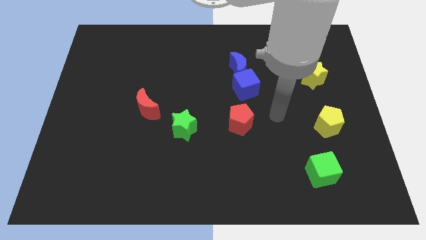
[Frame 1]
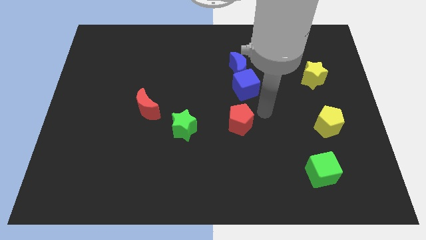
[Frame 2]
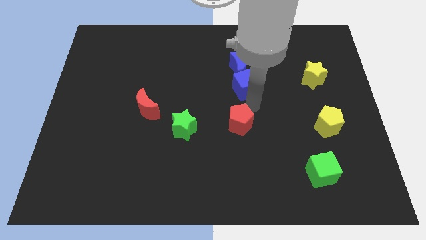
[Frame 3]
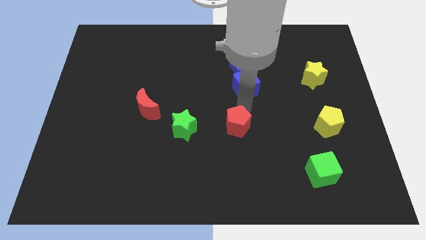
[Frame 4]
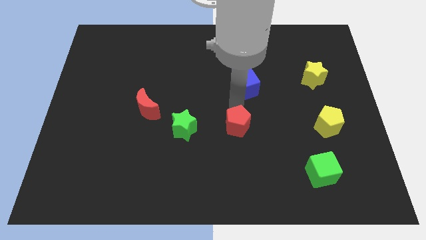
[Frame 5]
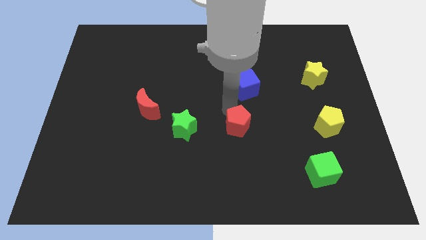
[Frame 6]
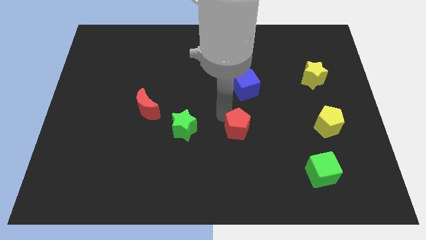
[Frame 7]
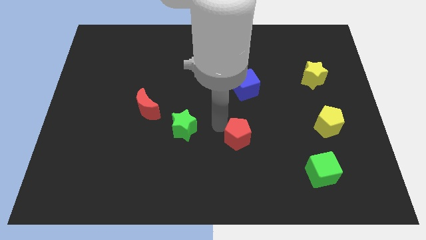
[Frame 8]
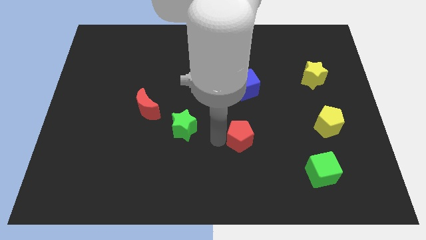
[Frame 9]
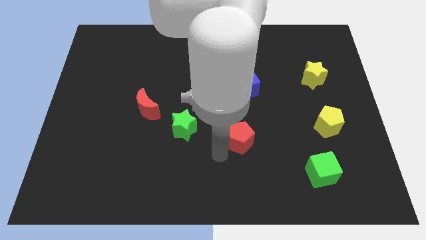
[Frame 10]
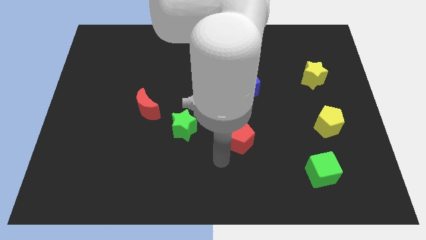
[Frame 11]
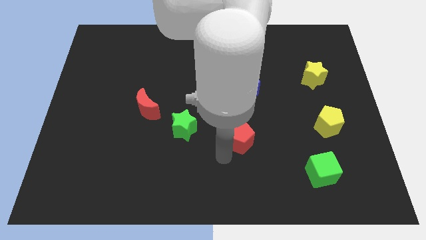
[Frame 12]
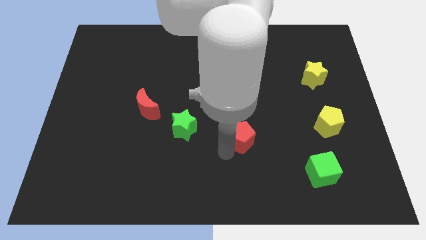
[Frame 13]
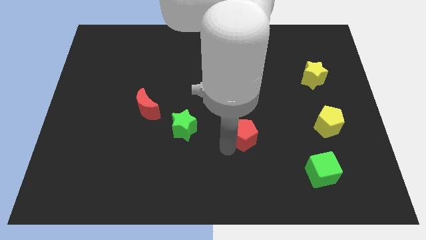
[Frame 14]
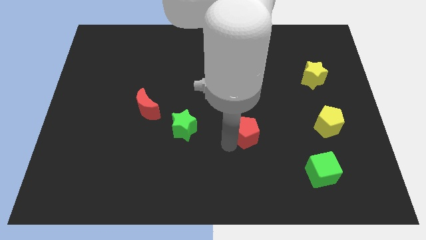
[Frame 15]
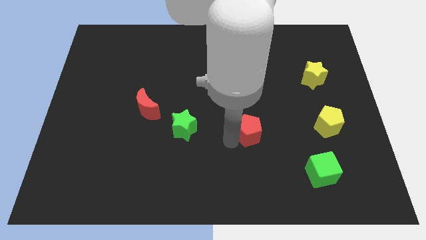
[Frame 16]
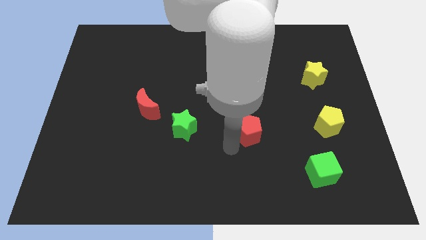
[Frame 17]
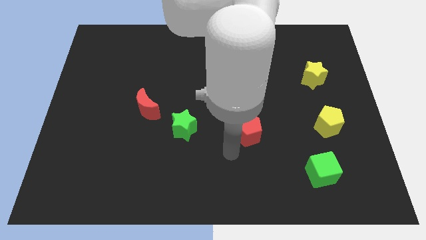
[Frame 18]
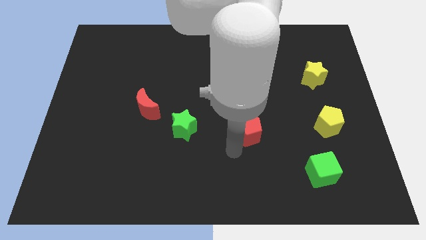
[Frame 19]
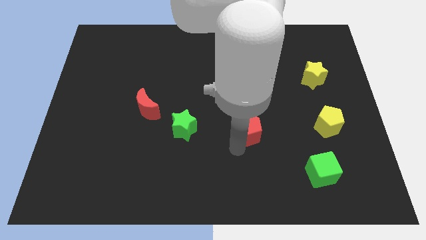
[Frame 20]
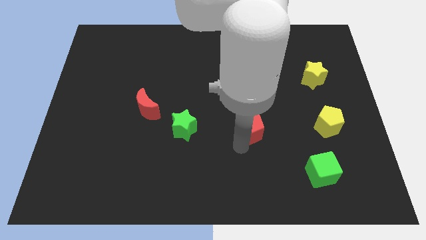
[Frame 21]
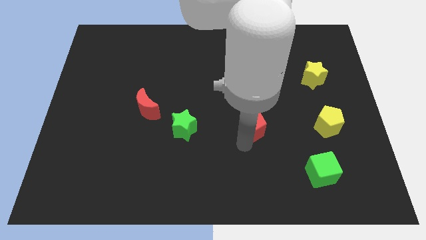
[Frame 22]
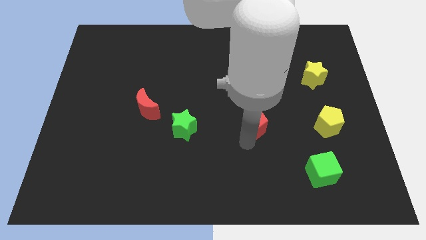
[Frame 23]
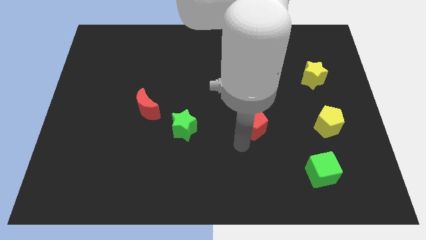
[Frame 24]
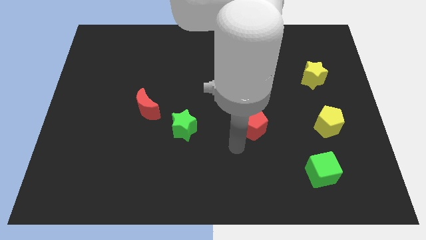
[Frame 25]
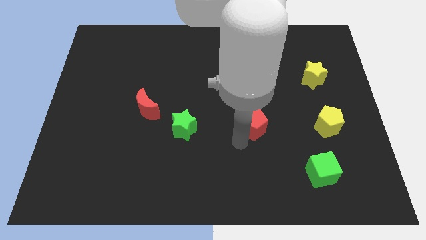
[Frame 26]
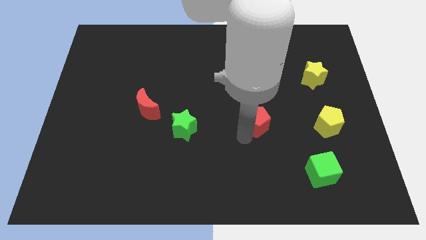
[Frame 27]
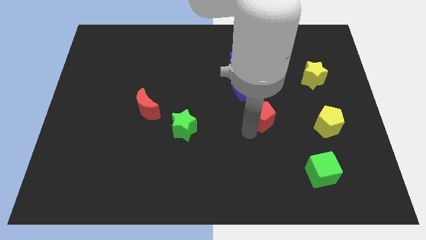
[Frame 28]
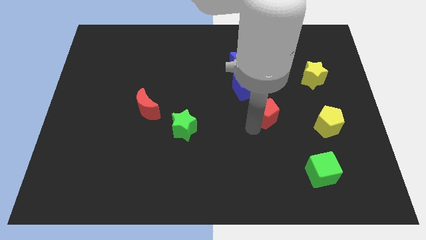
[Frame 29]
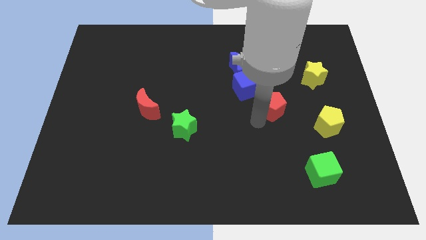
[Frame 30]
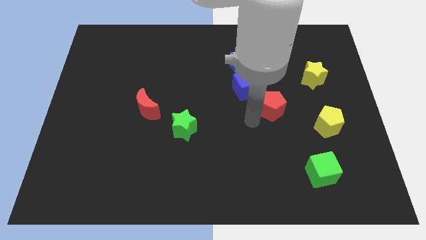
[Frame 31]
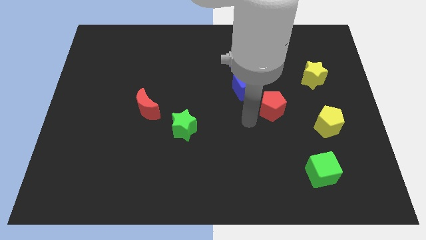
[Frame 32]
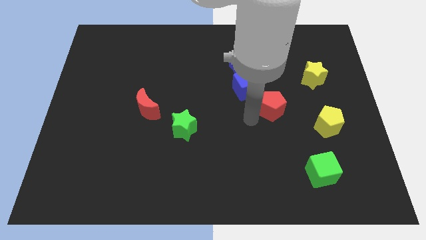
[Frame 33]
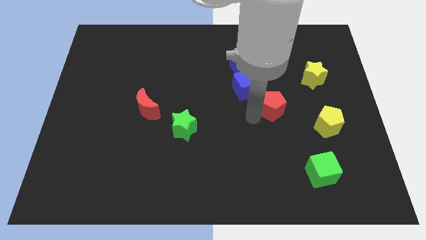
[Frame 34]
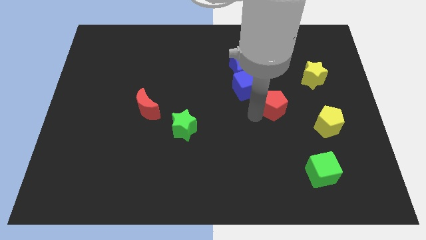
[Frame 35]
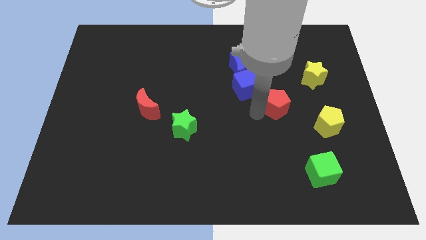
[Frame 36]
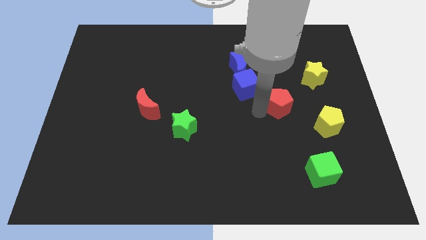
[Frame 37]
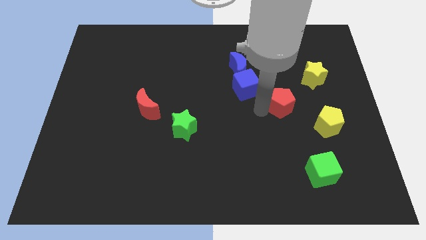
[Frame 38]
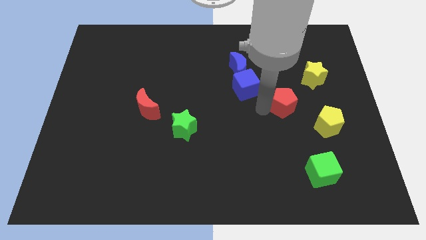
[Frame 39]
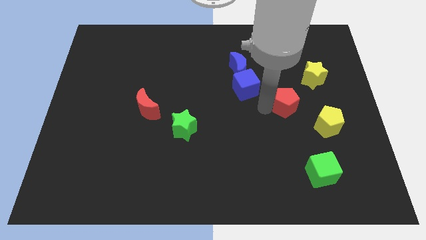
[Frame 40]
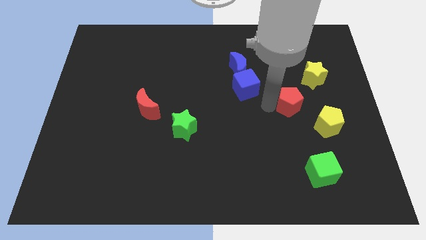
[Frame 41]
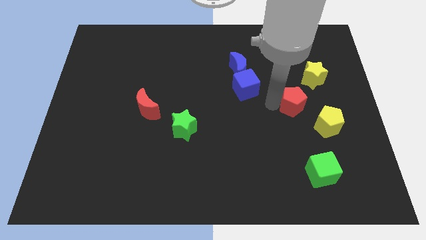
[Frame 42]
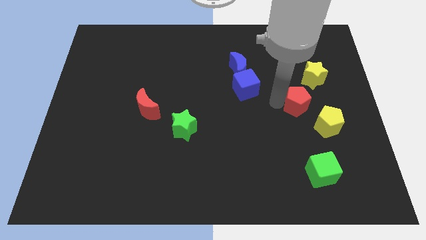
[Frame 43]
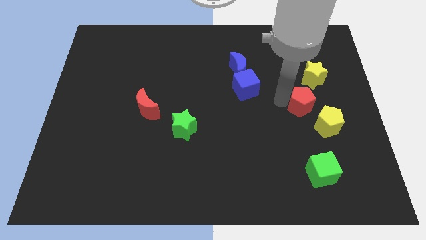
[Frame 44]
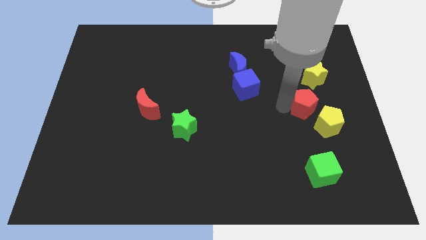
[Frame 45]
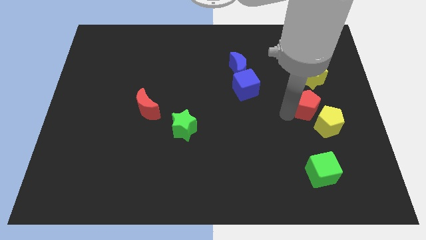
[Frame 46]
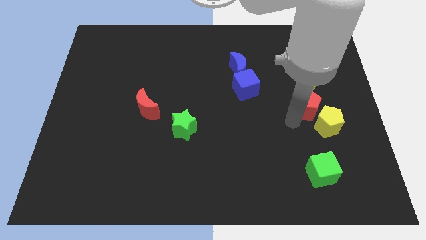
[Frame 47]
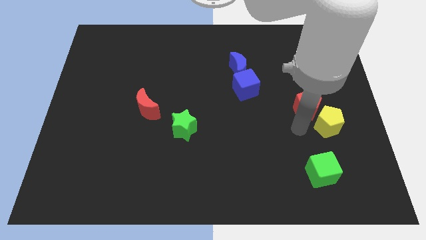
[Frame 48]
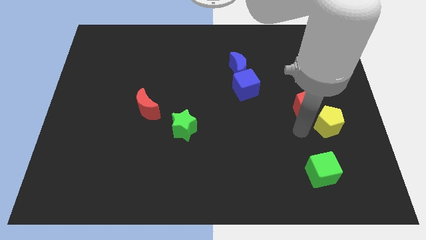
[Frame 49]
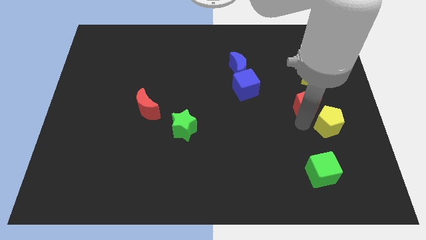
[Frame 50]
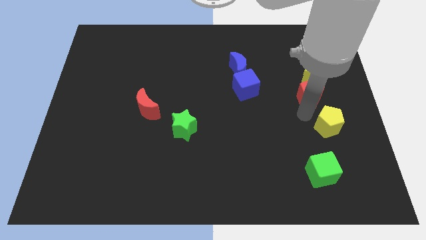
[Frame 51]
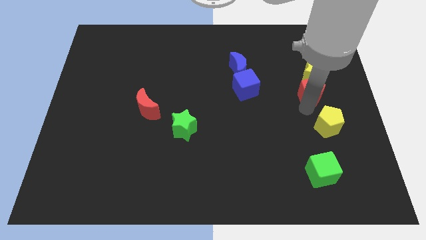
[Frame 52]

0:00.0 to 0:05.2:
put the red pentagon next to the yellow star

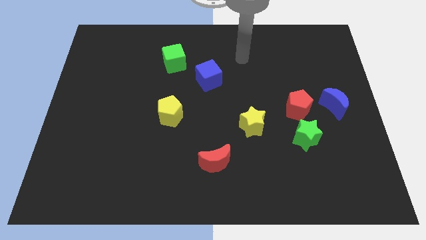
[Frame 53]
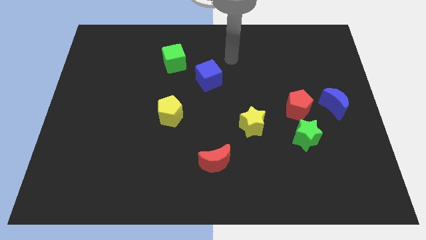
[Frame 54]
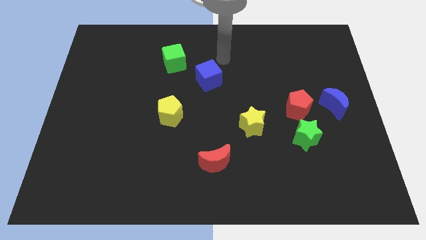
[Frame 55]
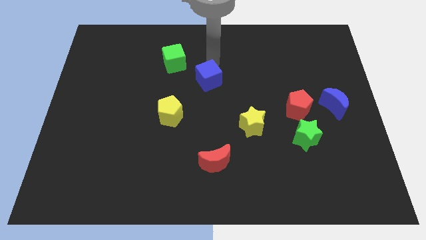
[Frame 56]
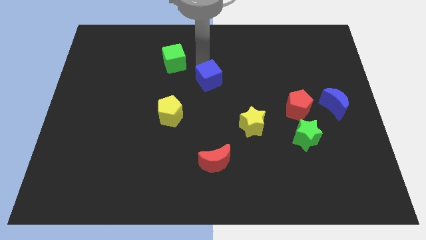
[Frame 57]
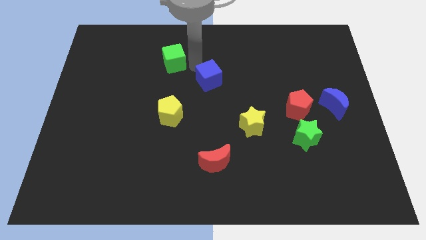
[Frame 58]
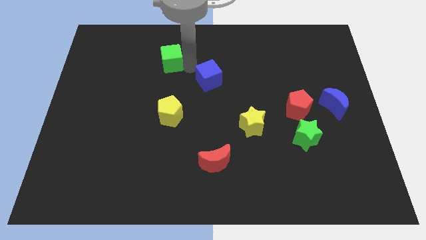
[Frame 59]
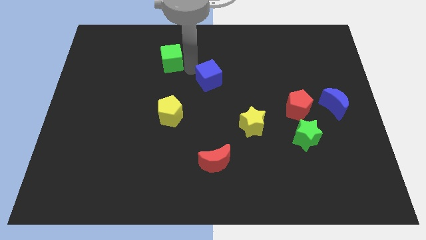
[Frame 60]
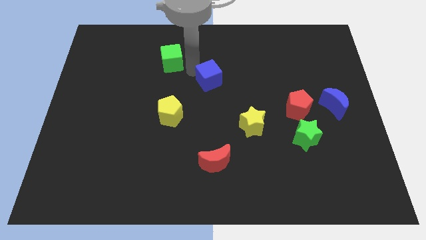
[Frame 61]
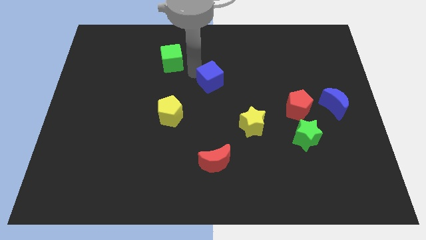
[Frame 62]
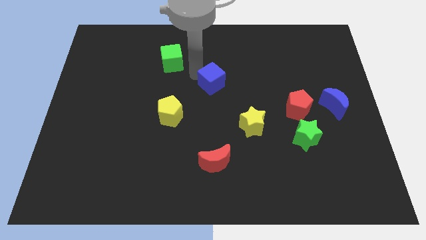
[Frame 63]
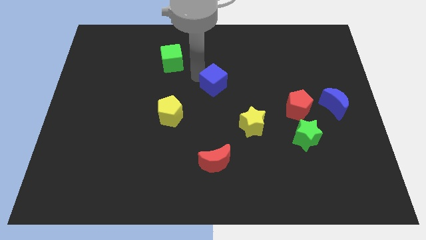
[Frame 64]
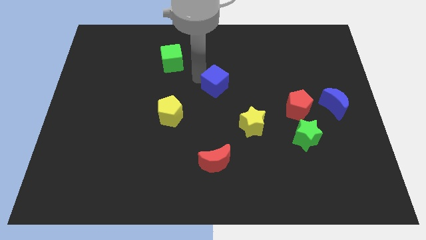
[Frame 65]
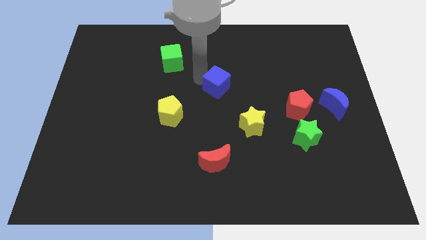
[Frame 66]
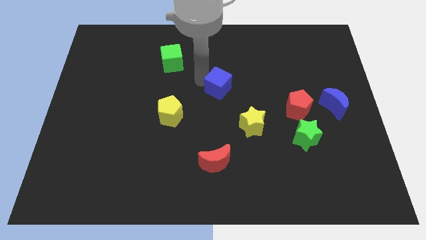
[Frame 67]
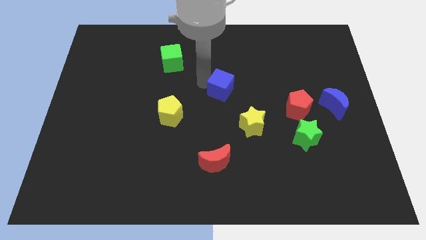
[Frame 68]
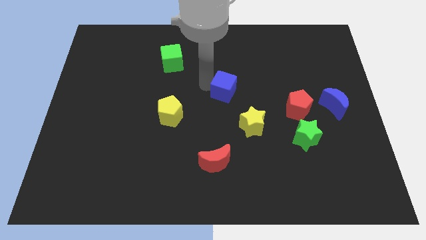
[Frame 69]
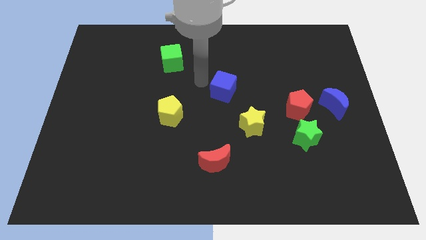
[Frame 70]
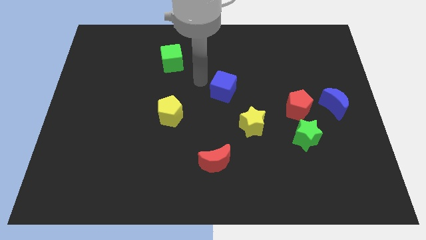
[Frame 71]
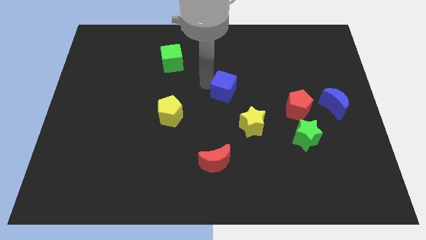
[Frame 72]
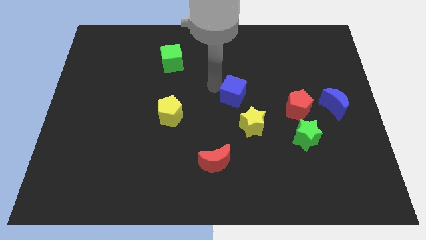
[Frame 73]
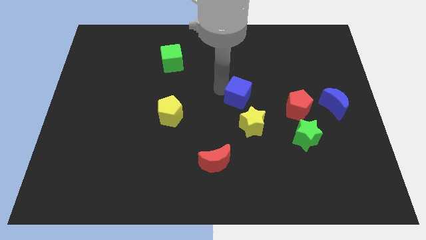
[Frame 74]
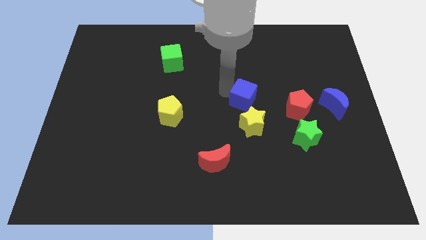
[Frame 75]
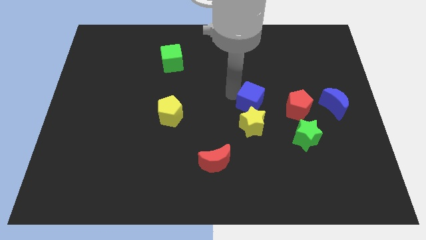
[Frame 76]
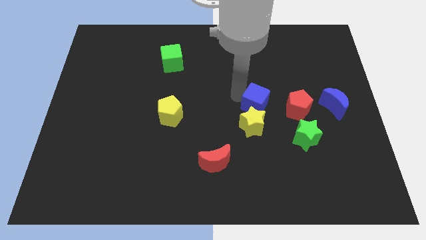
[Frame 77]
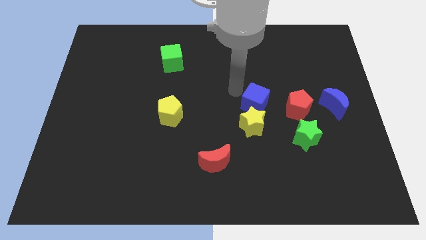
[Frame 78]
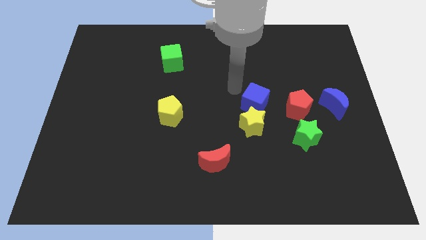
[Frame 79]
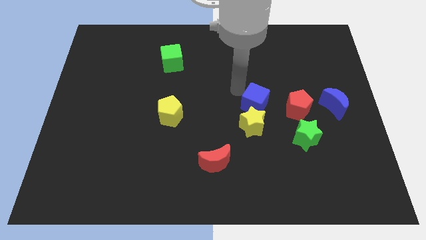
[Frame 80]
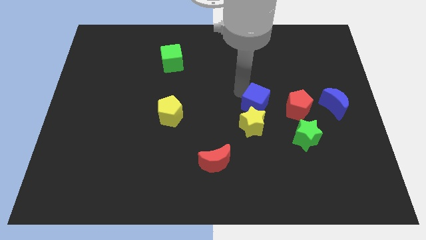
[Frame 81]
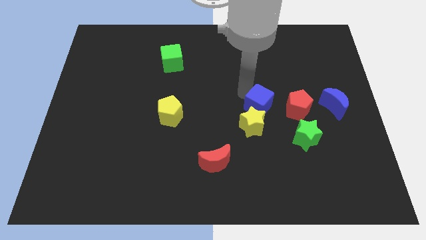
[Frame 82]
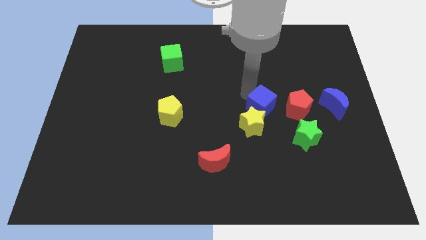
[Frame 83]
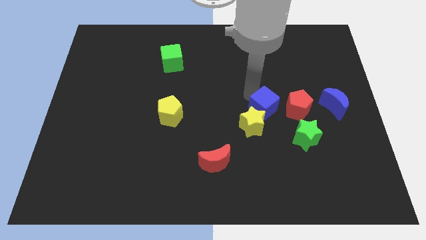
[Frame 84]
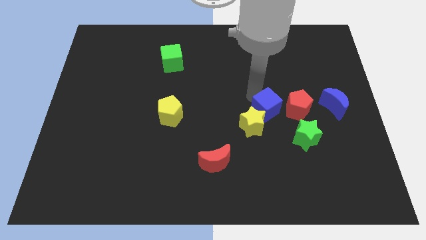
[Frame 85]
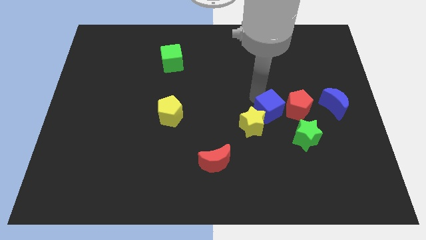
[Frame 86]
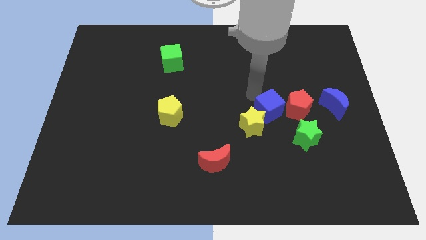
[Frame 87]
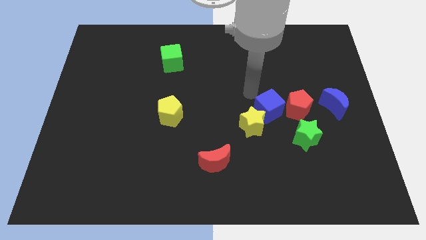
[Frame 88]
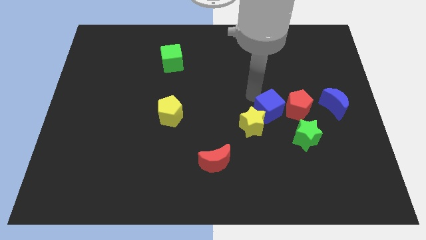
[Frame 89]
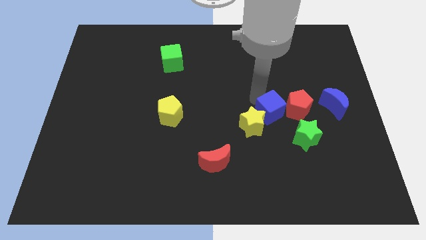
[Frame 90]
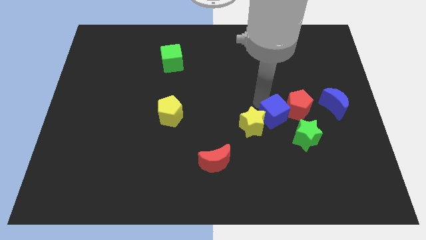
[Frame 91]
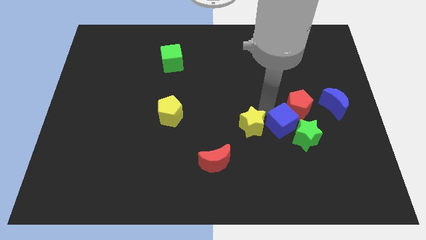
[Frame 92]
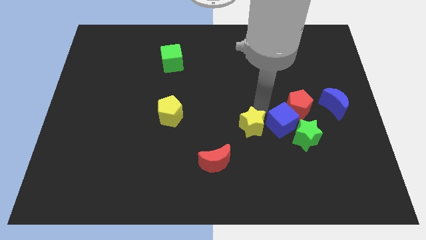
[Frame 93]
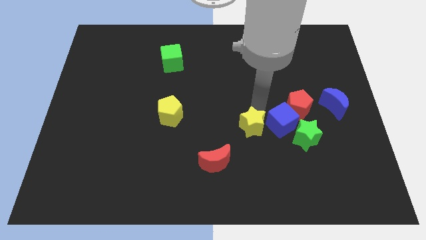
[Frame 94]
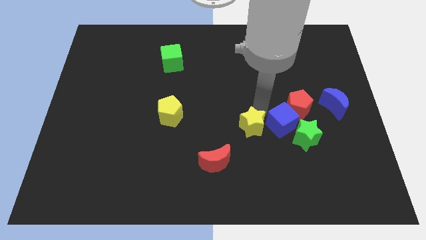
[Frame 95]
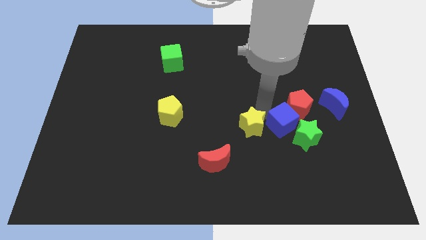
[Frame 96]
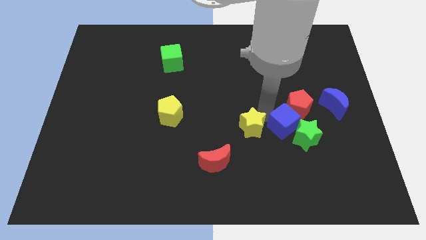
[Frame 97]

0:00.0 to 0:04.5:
move the blue cube to the green star
